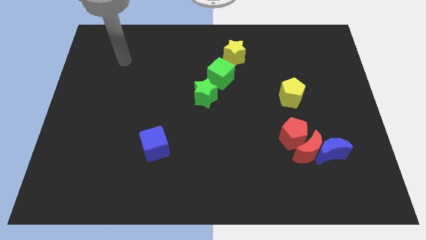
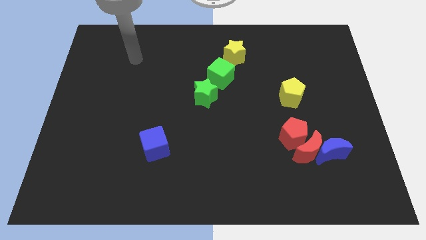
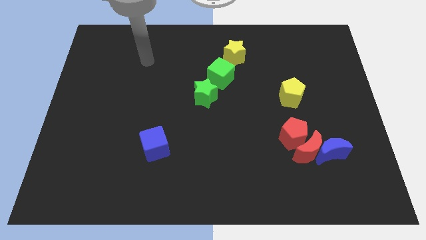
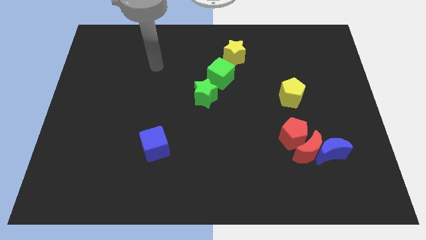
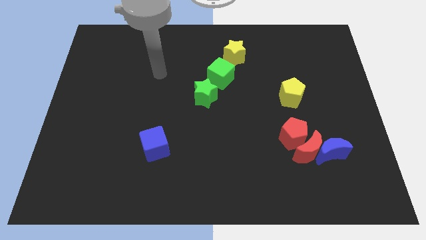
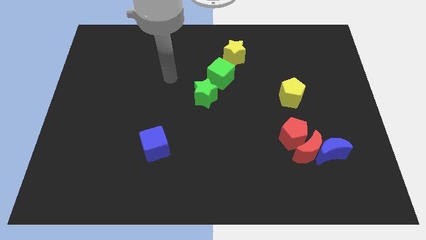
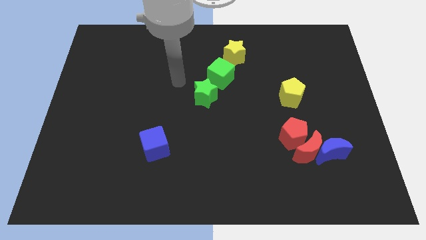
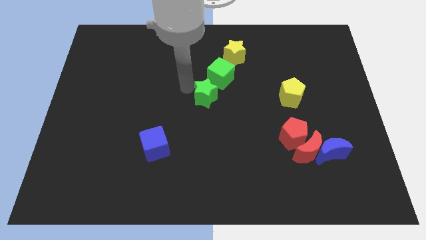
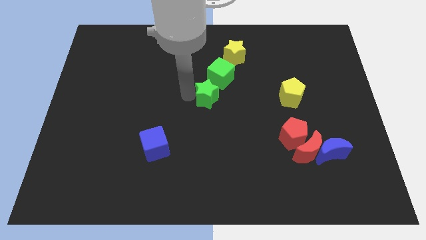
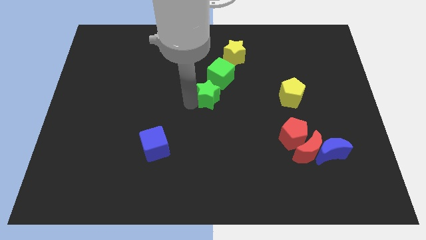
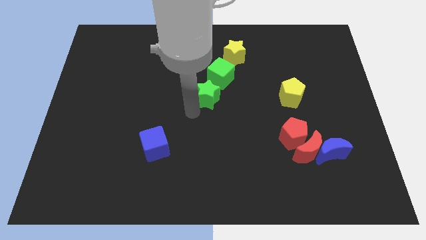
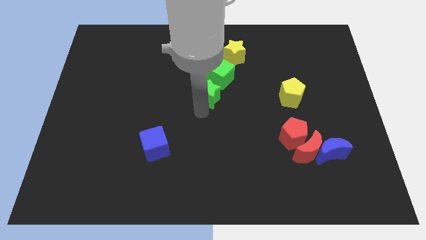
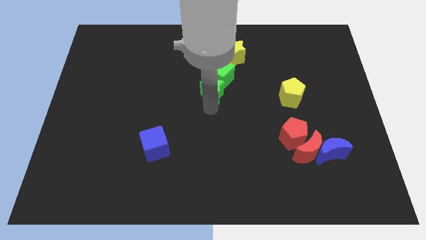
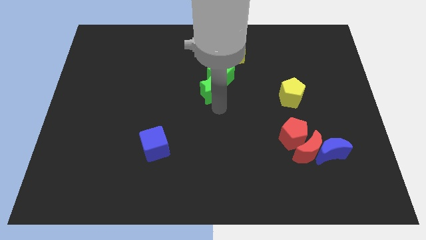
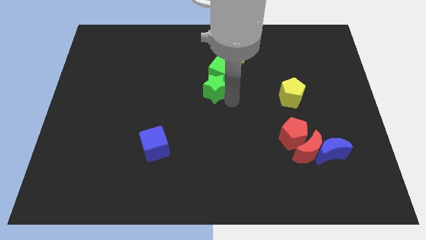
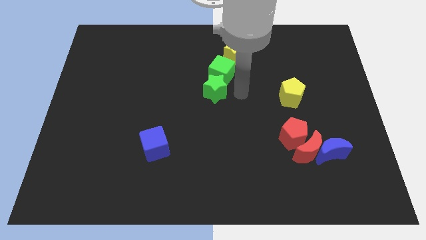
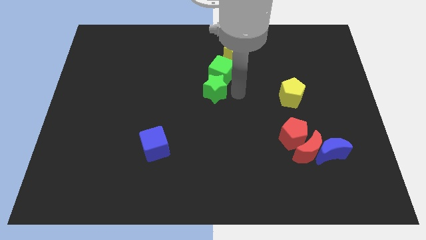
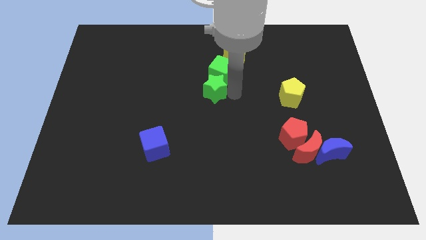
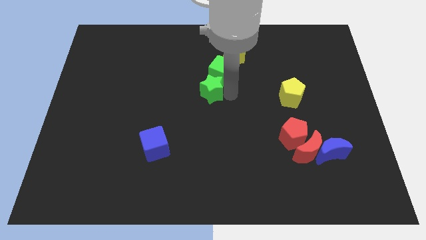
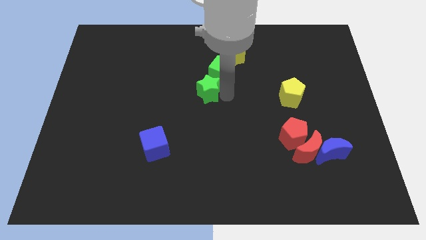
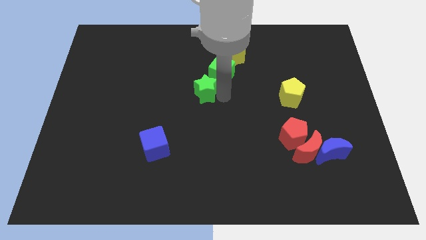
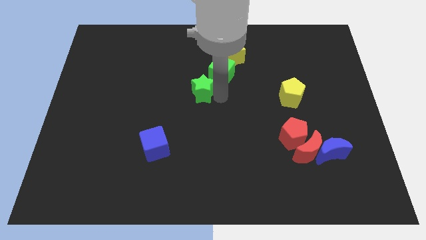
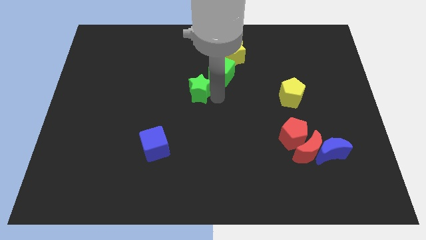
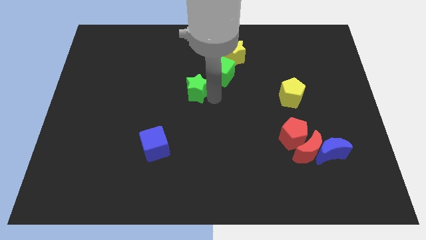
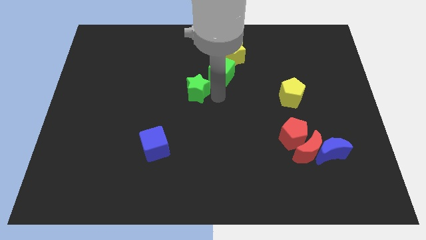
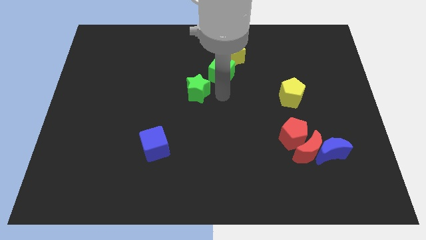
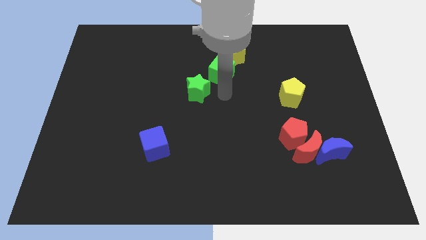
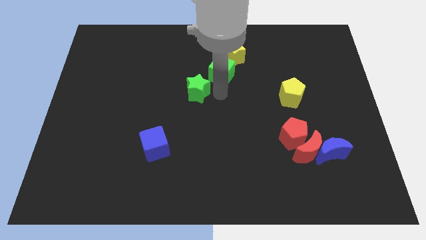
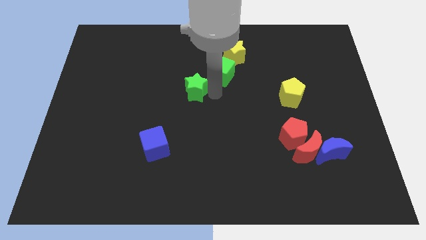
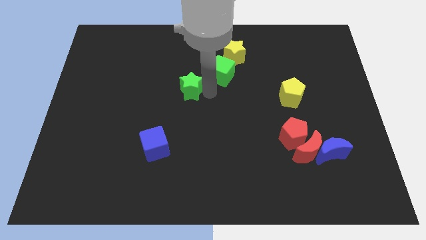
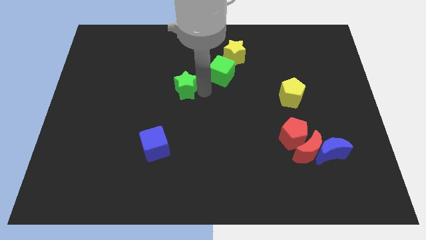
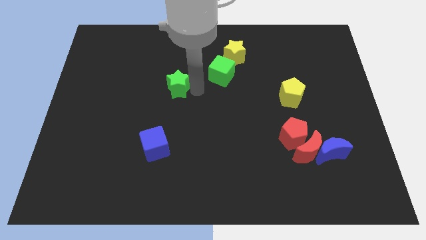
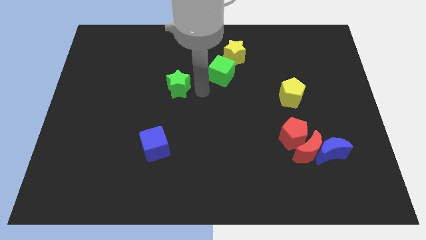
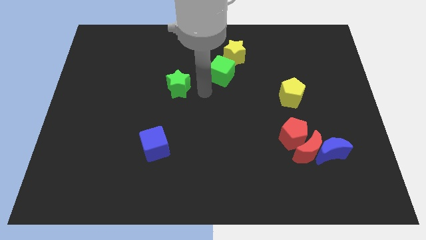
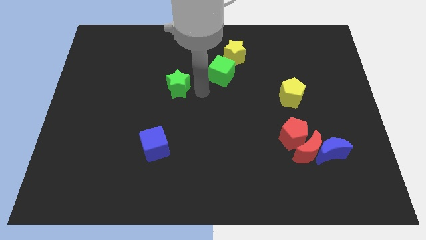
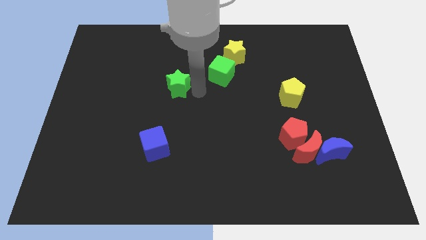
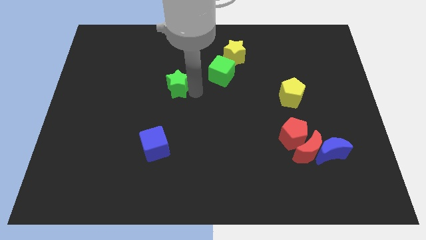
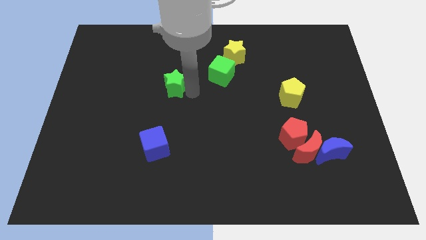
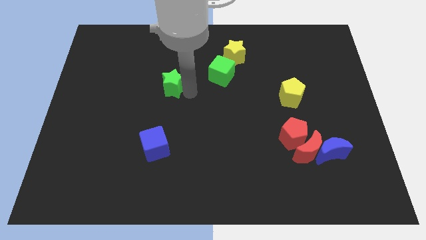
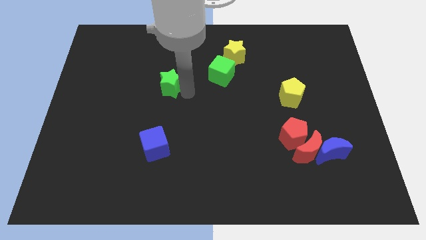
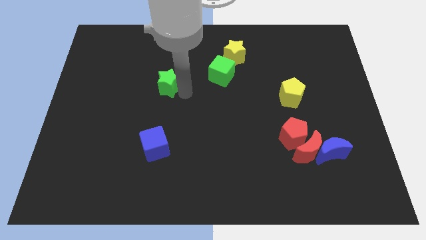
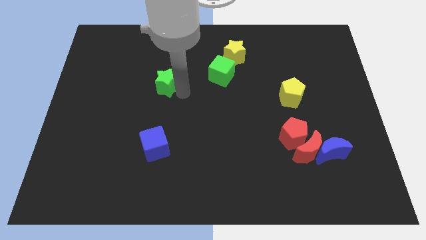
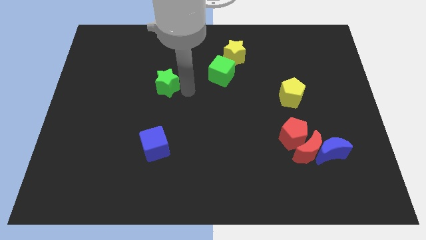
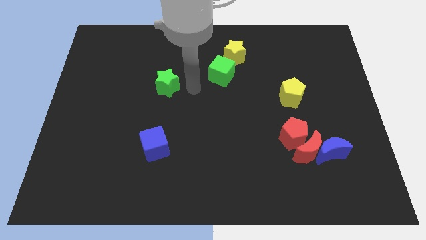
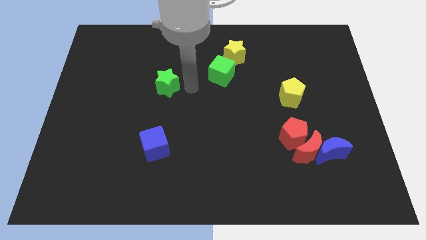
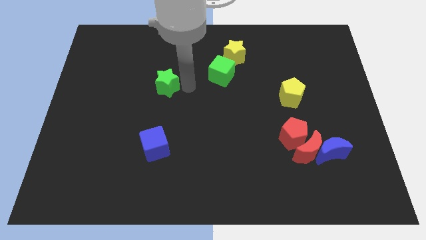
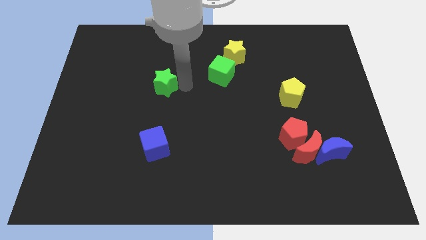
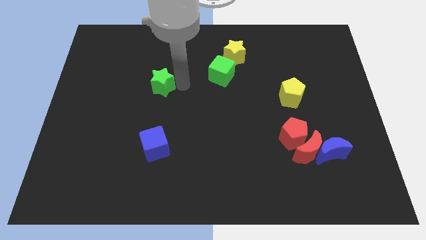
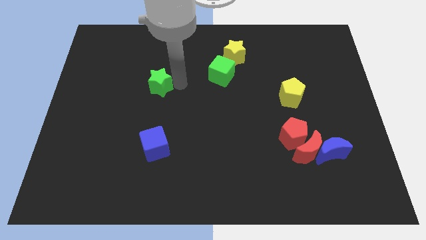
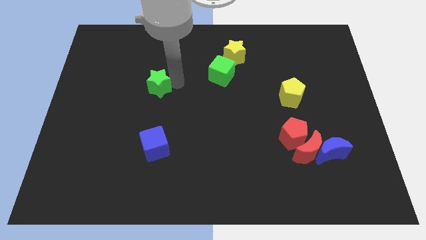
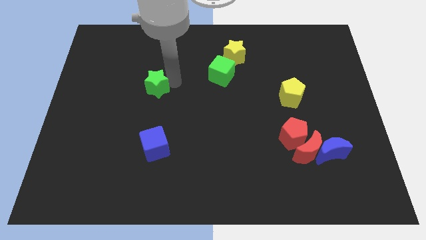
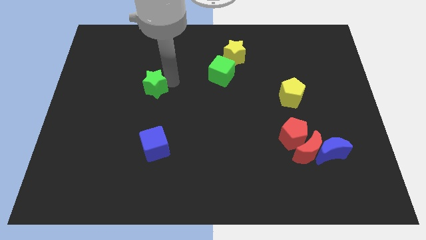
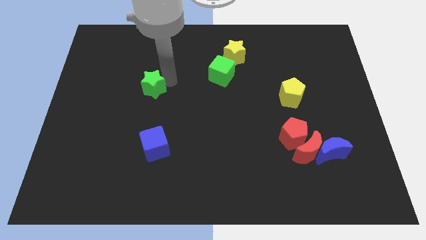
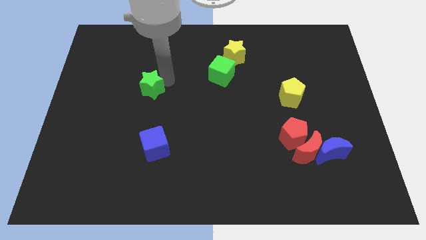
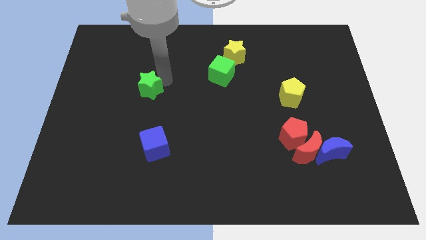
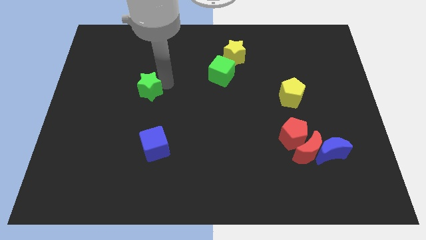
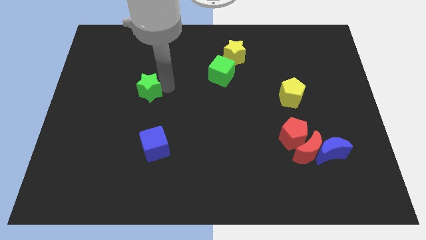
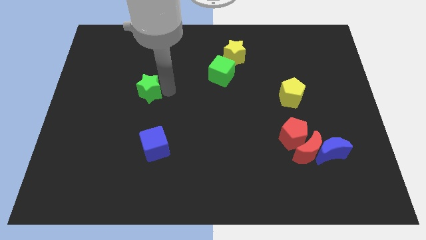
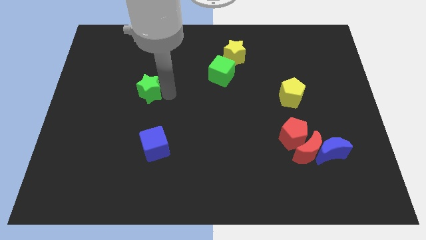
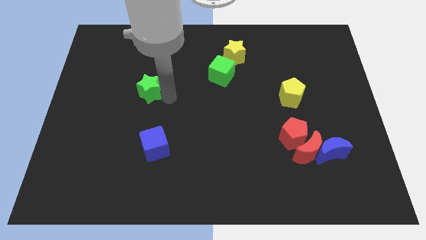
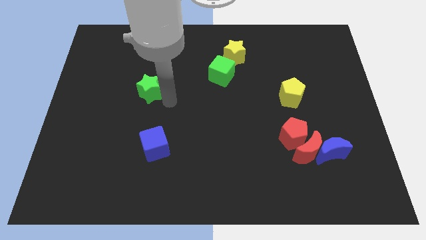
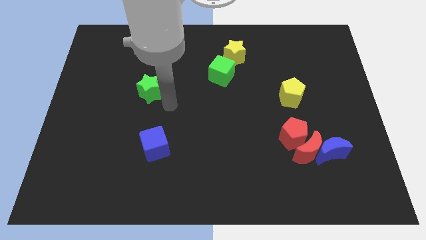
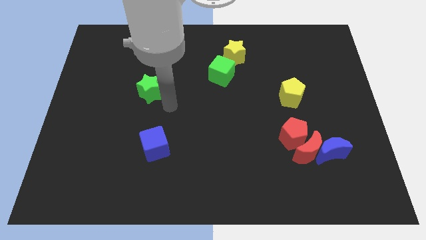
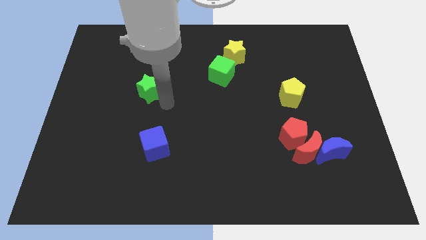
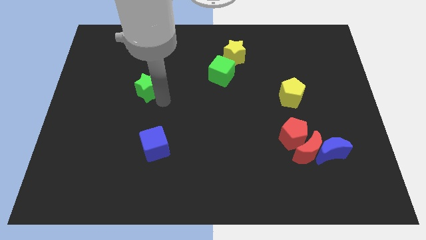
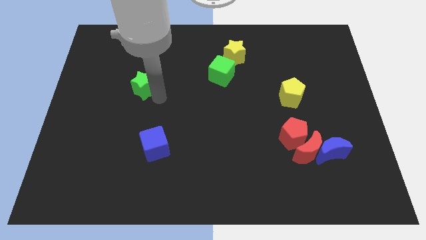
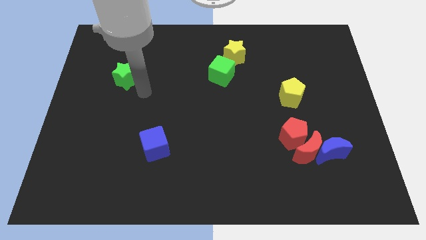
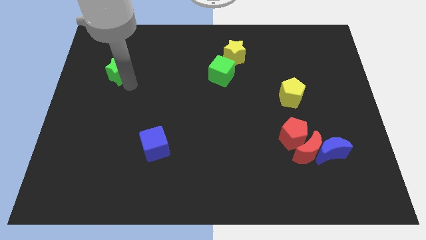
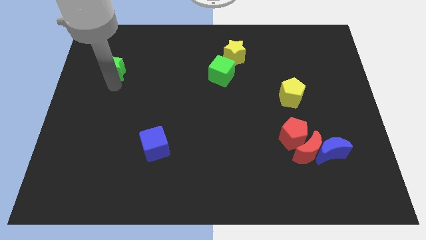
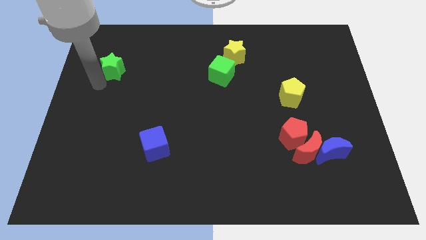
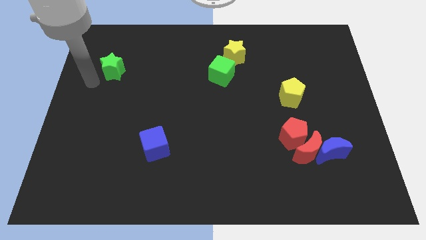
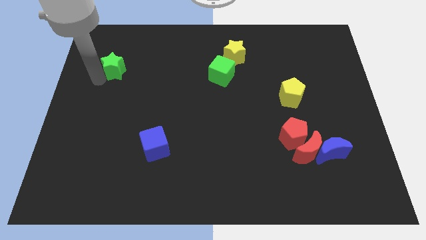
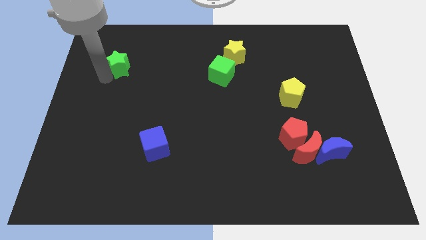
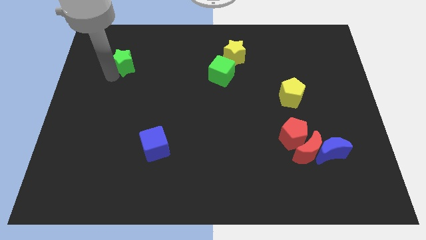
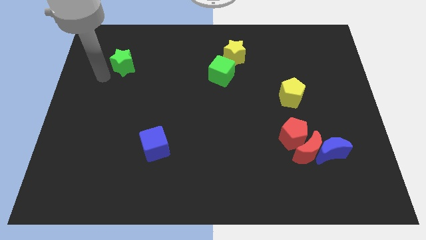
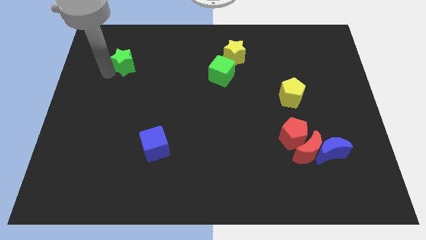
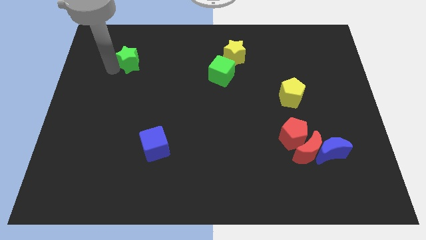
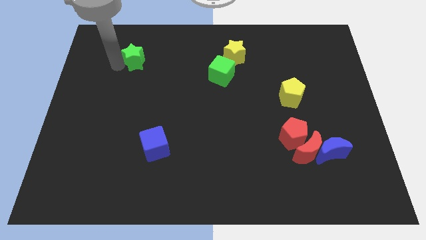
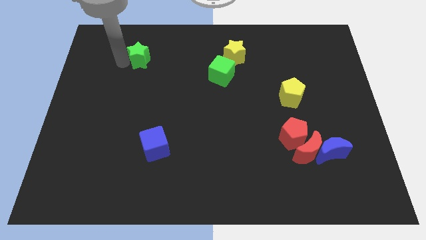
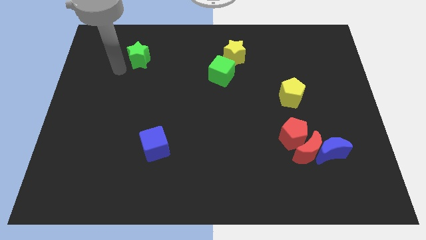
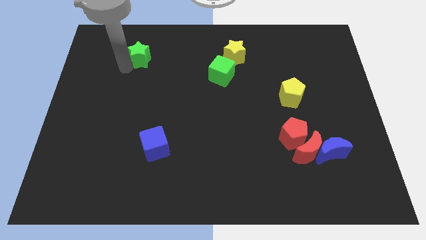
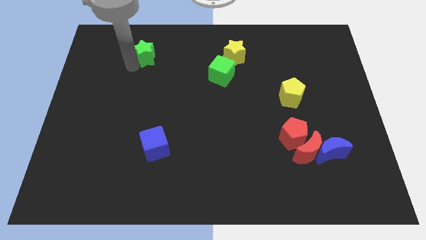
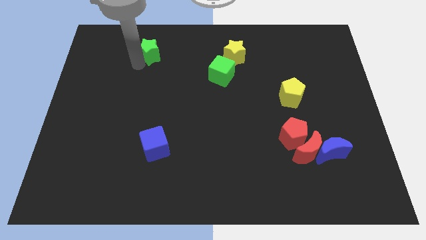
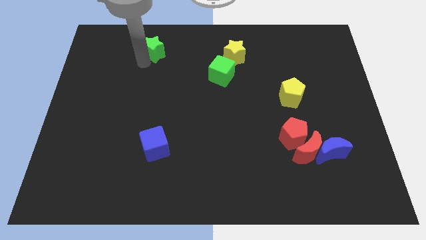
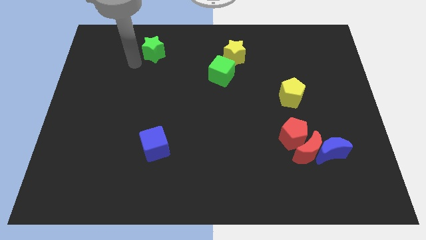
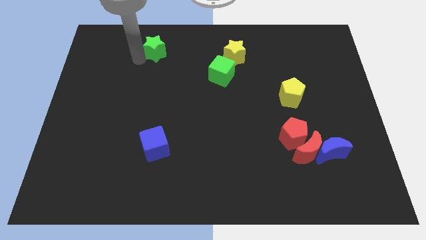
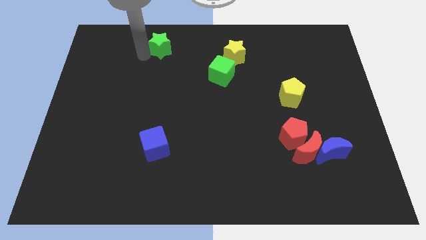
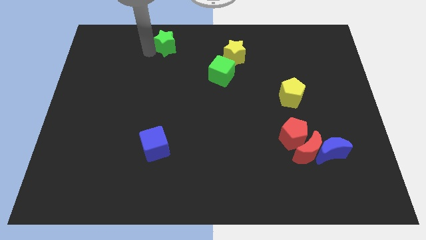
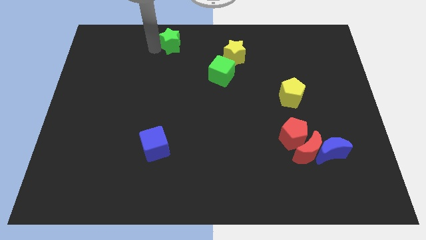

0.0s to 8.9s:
push the green star to the towards your base
